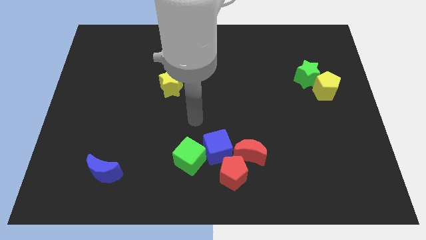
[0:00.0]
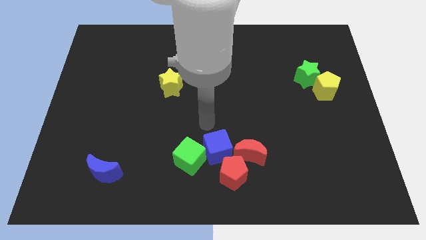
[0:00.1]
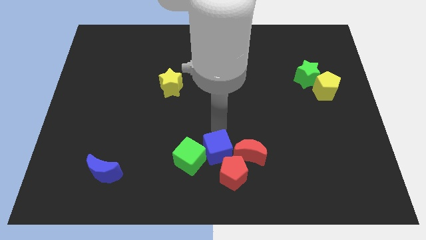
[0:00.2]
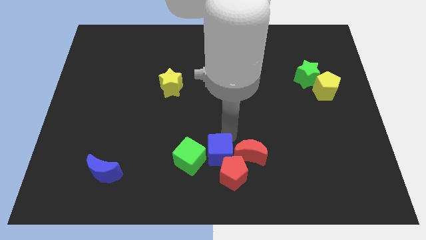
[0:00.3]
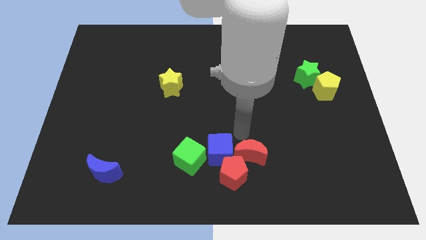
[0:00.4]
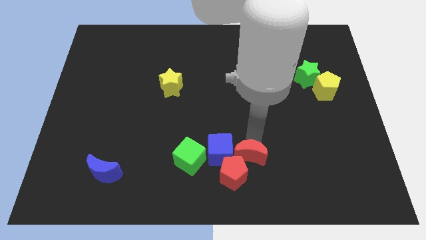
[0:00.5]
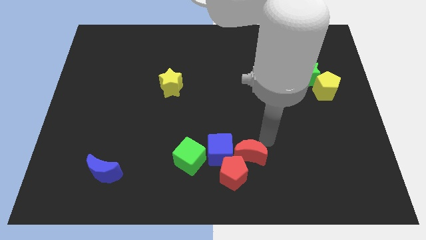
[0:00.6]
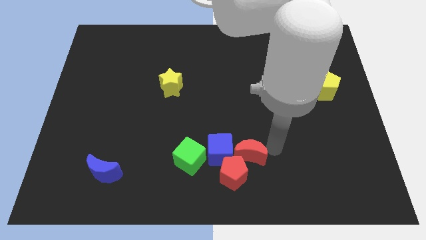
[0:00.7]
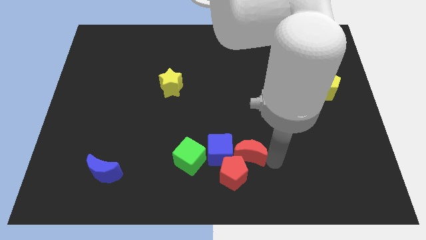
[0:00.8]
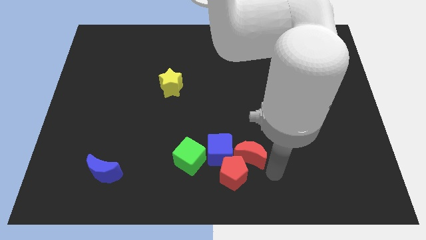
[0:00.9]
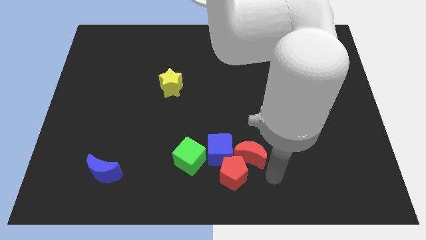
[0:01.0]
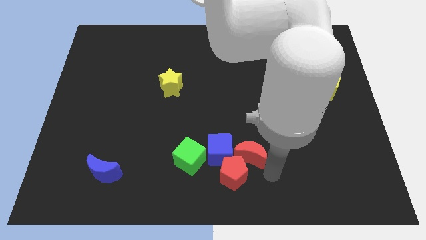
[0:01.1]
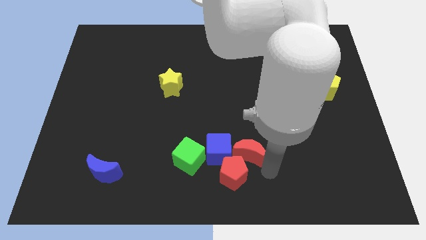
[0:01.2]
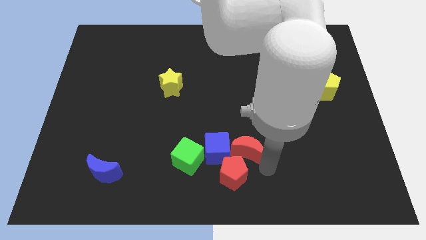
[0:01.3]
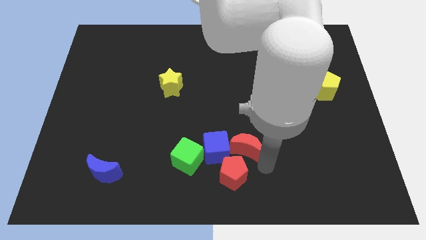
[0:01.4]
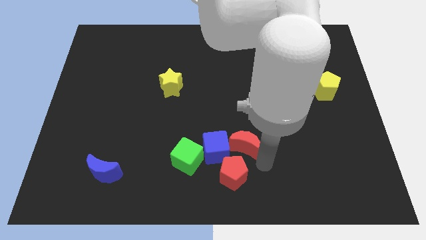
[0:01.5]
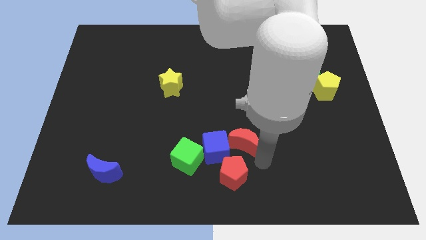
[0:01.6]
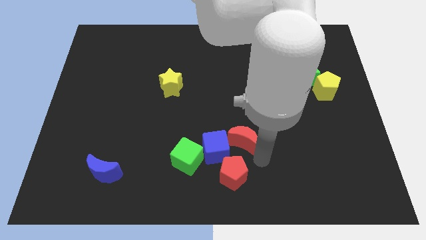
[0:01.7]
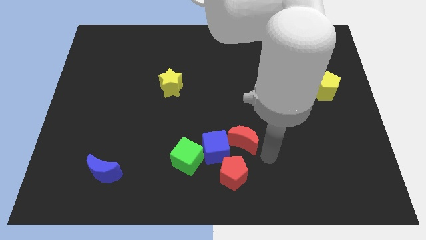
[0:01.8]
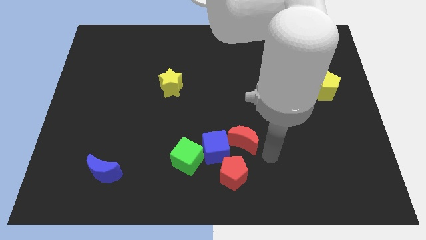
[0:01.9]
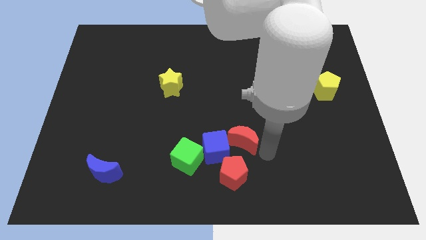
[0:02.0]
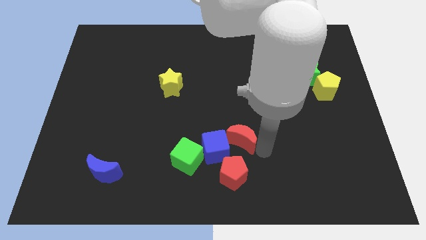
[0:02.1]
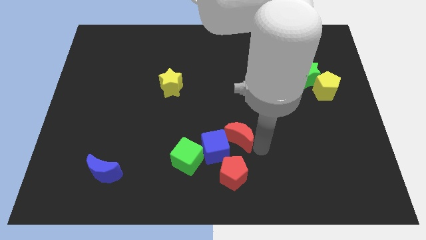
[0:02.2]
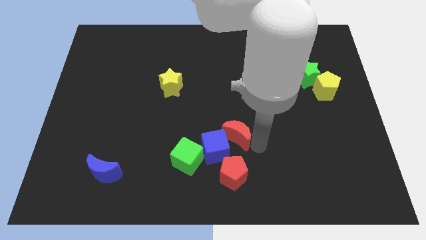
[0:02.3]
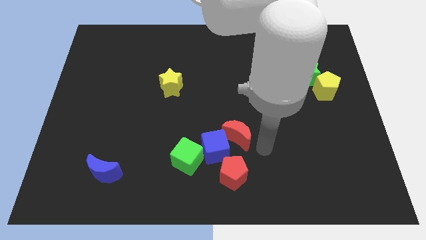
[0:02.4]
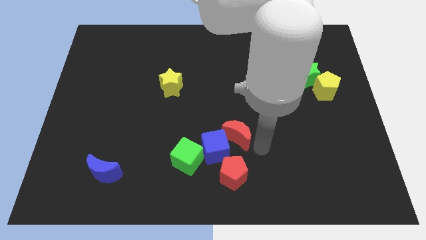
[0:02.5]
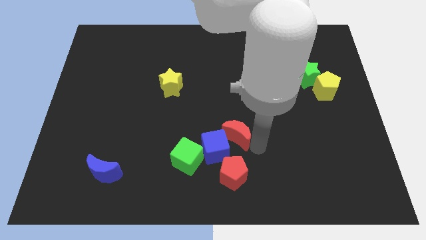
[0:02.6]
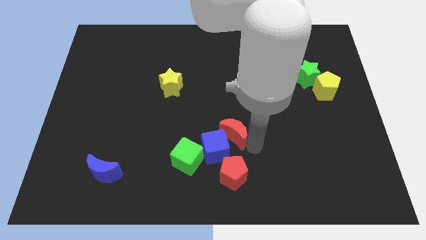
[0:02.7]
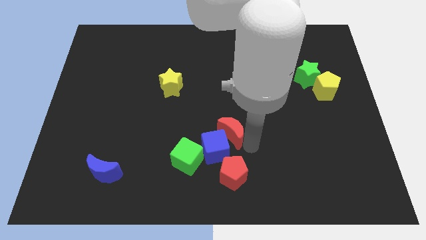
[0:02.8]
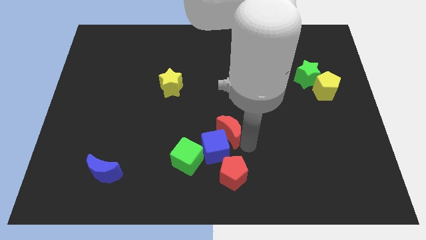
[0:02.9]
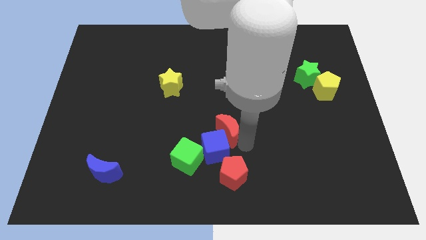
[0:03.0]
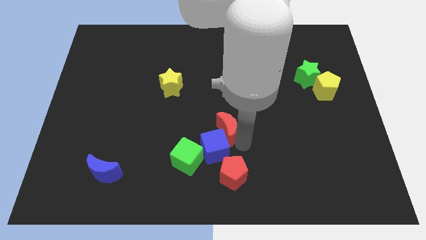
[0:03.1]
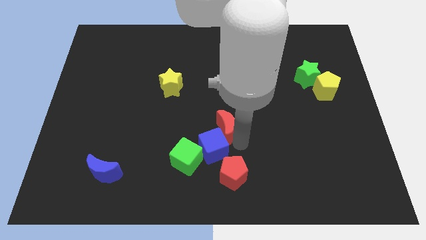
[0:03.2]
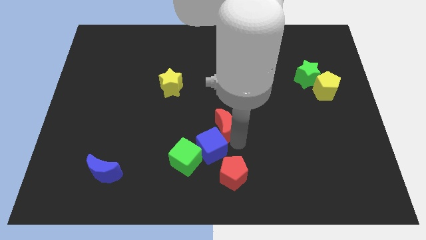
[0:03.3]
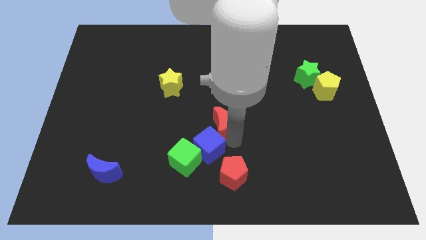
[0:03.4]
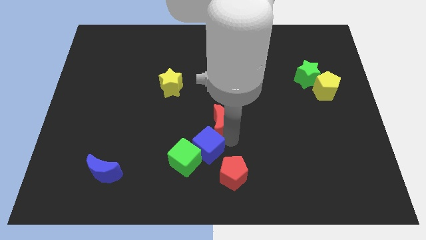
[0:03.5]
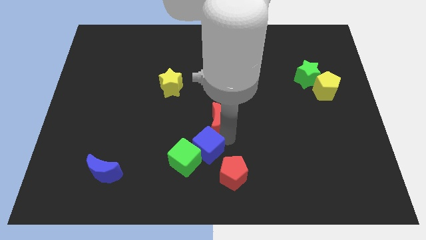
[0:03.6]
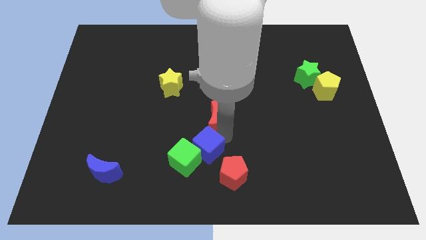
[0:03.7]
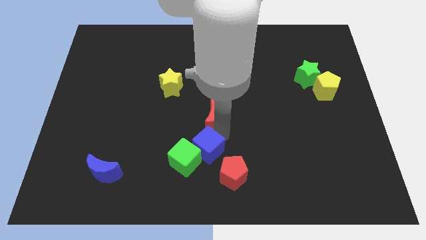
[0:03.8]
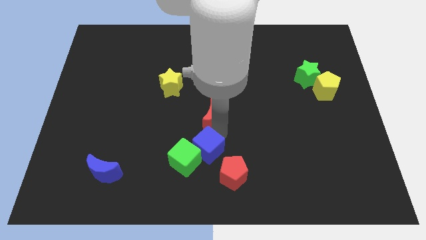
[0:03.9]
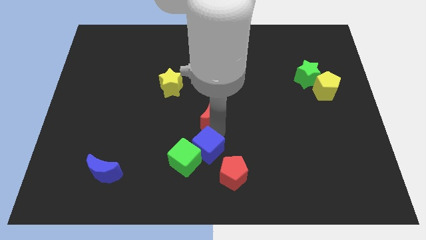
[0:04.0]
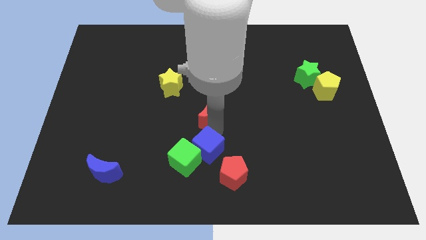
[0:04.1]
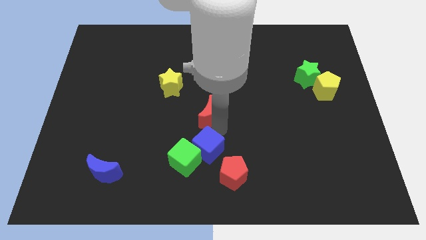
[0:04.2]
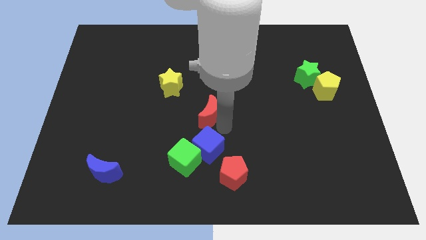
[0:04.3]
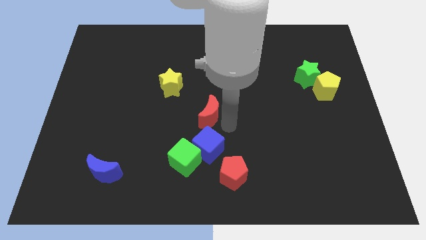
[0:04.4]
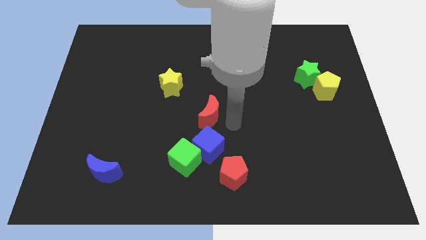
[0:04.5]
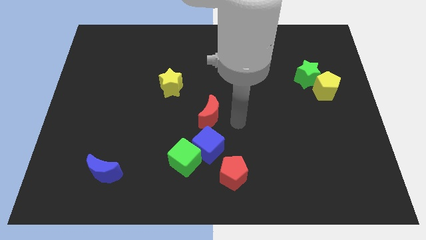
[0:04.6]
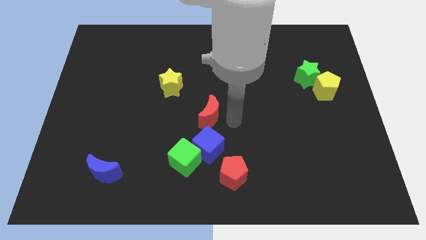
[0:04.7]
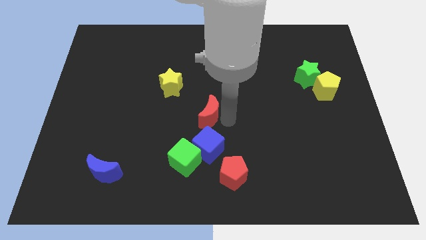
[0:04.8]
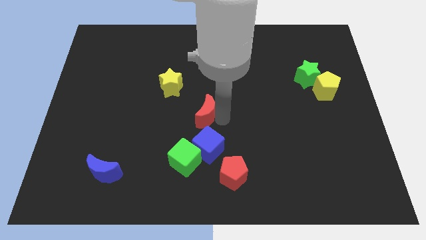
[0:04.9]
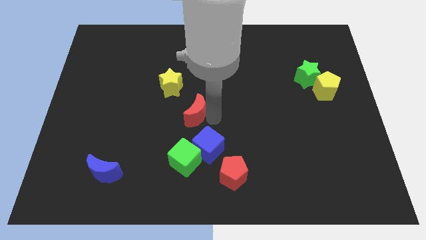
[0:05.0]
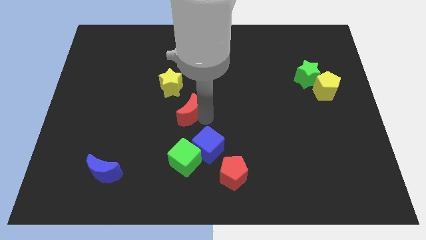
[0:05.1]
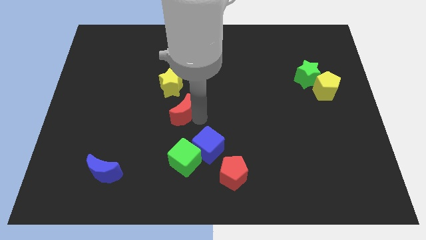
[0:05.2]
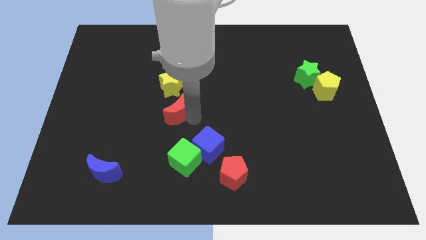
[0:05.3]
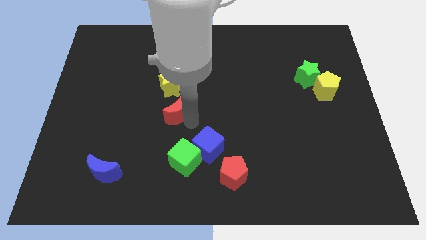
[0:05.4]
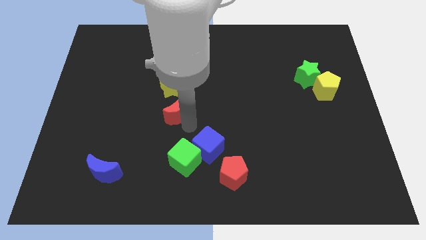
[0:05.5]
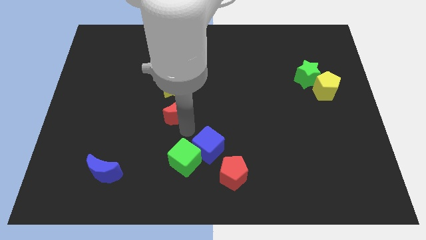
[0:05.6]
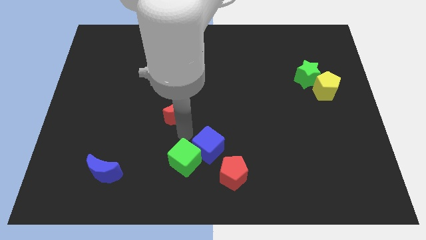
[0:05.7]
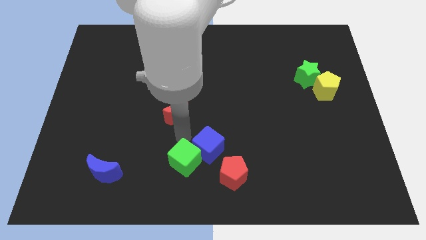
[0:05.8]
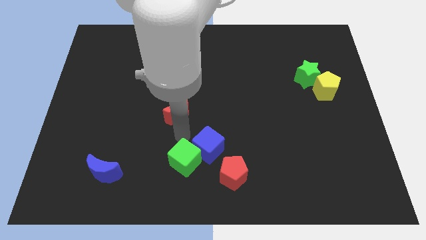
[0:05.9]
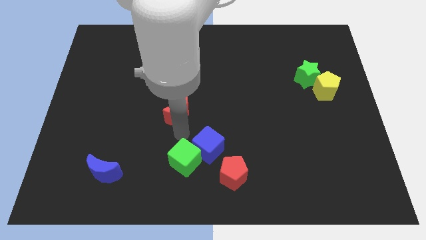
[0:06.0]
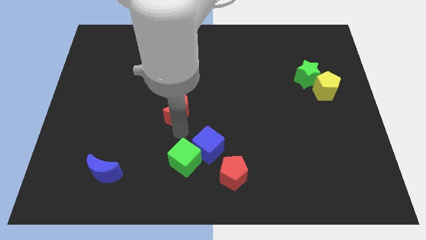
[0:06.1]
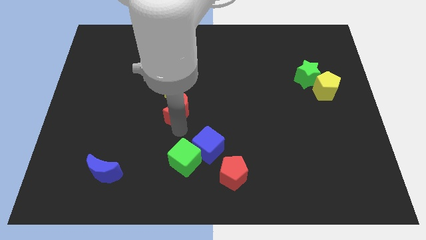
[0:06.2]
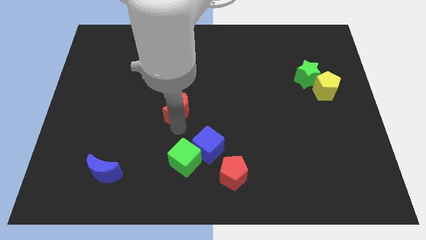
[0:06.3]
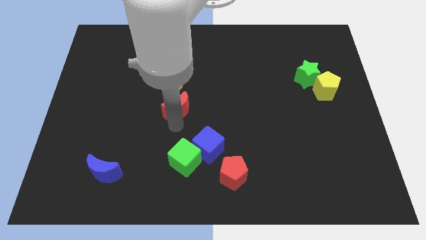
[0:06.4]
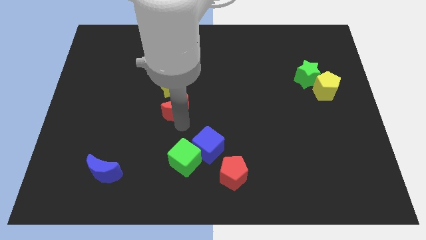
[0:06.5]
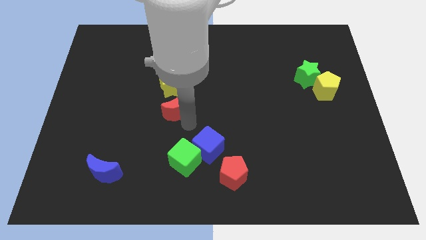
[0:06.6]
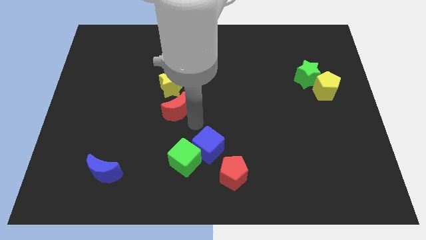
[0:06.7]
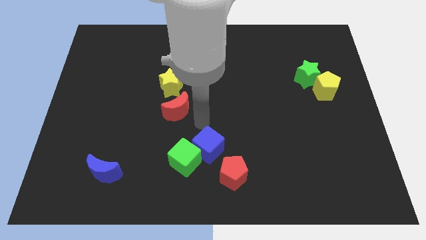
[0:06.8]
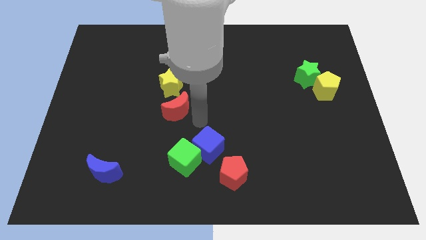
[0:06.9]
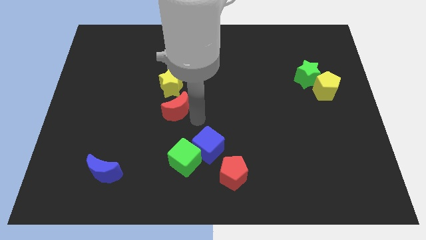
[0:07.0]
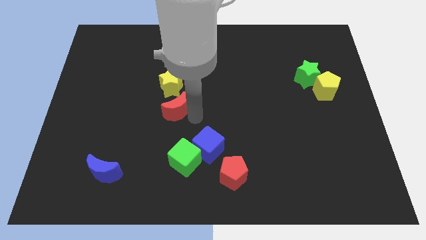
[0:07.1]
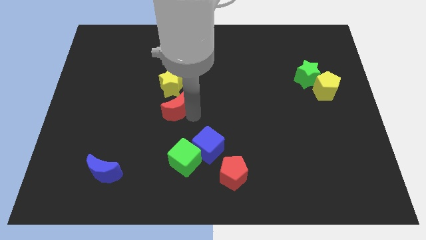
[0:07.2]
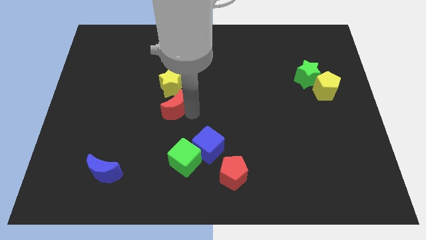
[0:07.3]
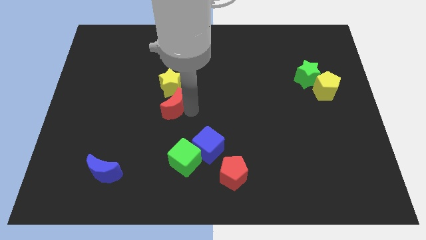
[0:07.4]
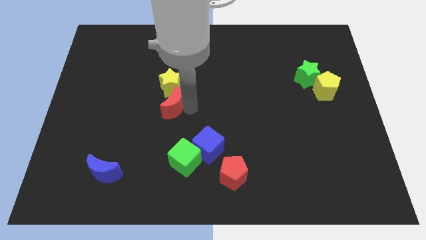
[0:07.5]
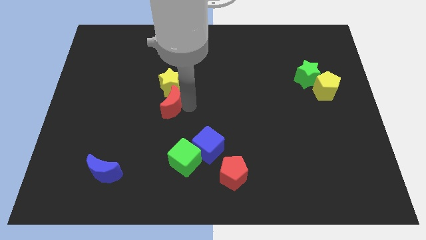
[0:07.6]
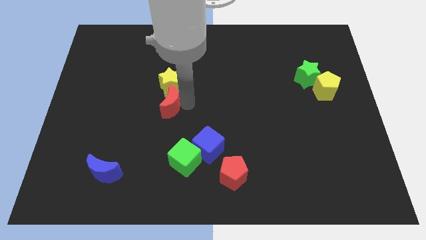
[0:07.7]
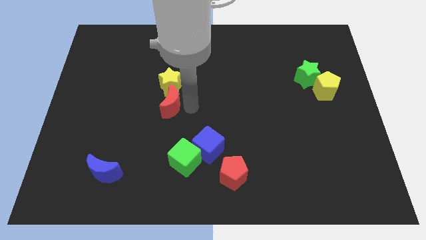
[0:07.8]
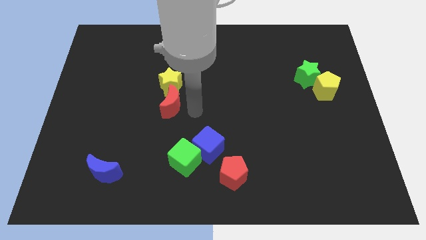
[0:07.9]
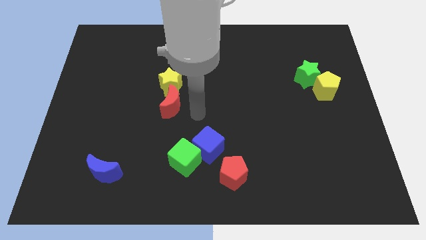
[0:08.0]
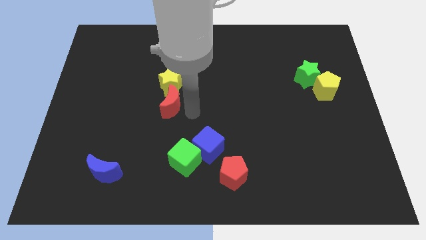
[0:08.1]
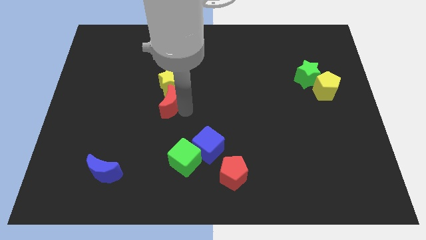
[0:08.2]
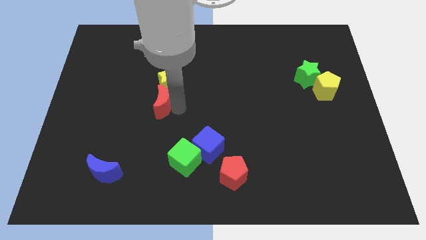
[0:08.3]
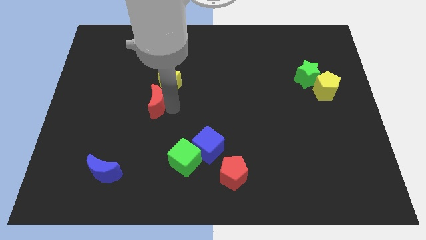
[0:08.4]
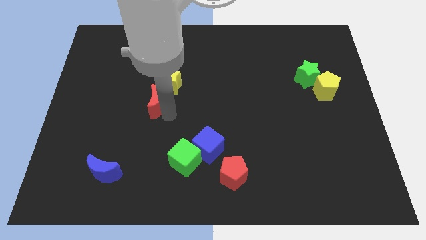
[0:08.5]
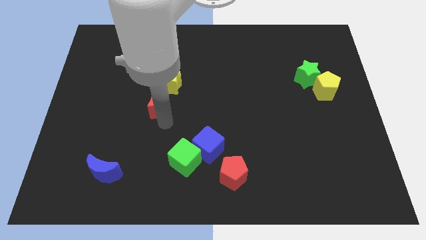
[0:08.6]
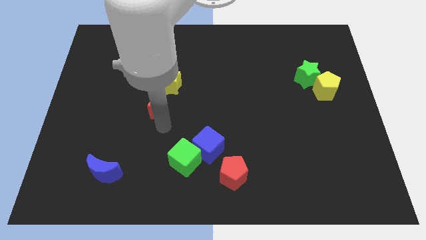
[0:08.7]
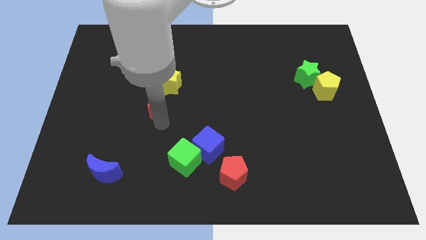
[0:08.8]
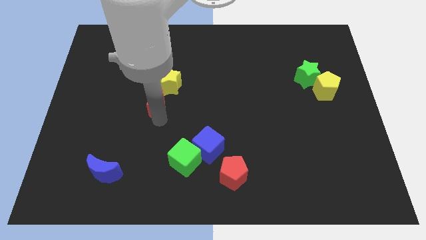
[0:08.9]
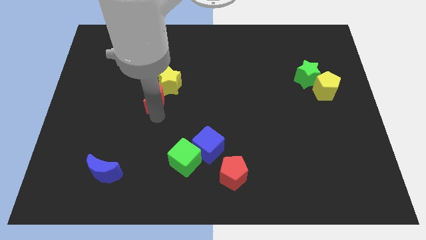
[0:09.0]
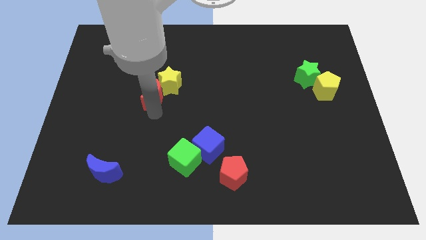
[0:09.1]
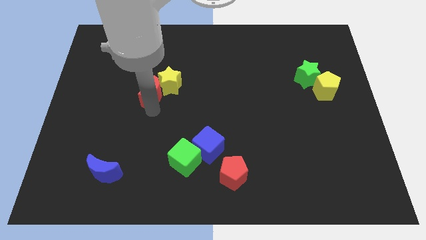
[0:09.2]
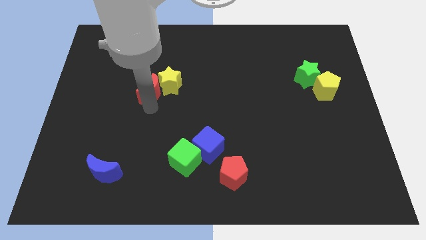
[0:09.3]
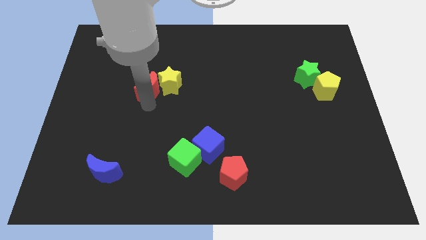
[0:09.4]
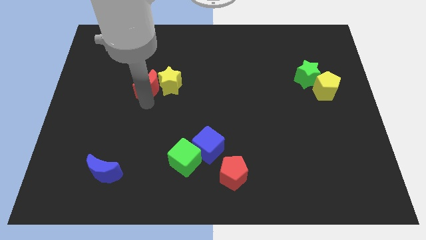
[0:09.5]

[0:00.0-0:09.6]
put the red moon to the top left side of the yellow star
